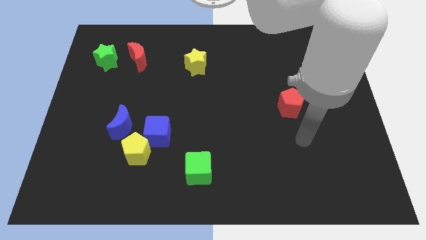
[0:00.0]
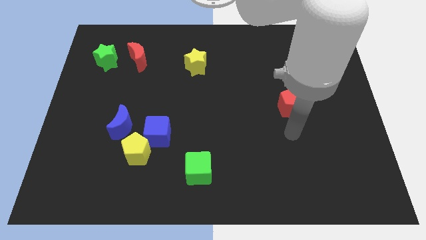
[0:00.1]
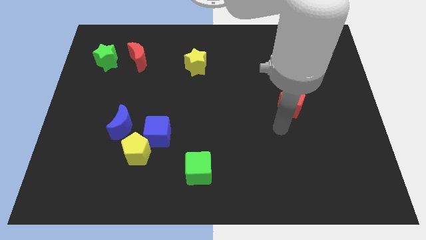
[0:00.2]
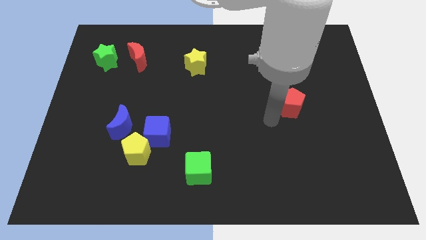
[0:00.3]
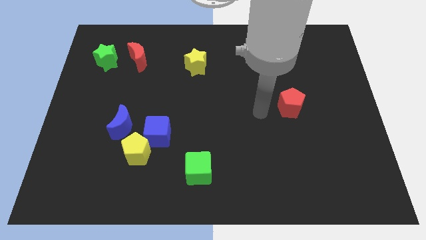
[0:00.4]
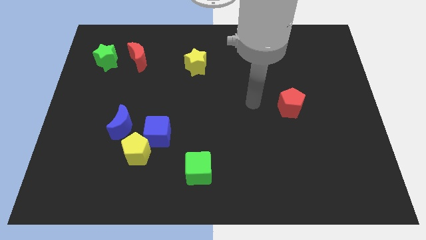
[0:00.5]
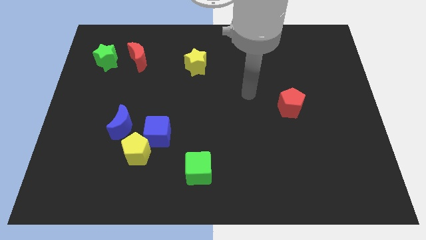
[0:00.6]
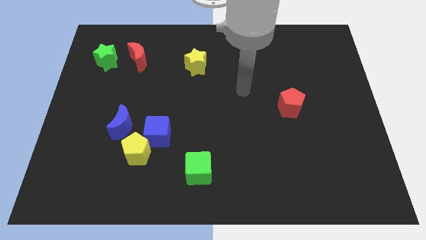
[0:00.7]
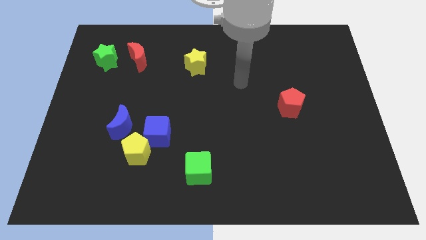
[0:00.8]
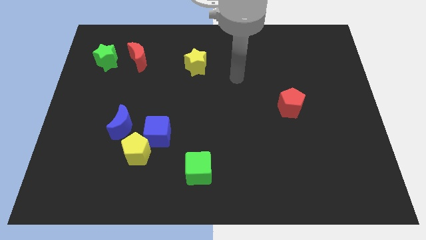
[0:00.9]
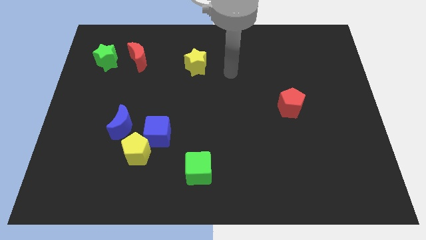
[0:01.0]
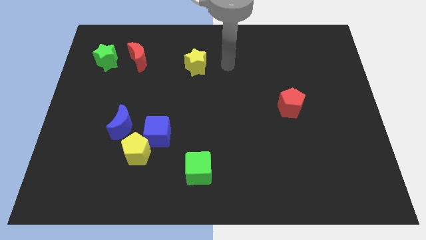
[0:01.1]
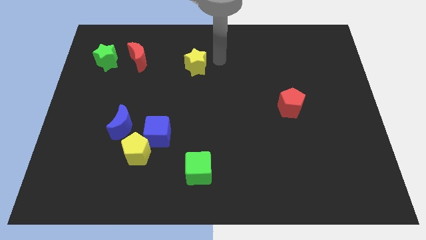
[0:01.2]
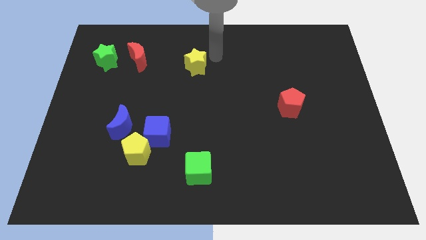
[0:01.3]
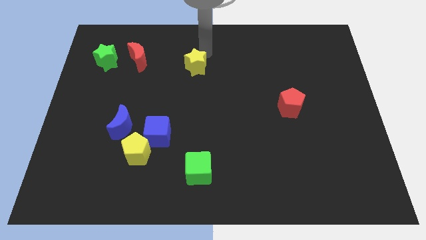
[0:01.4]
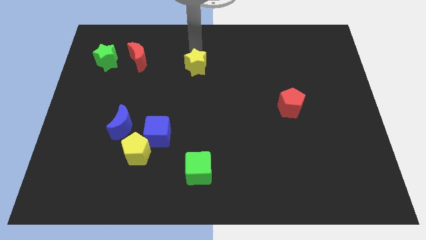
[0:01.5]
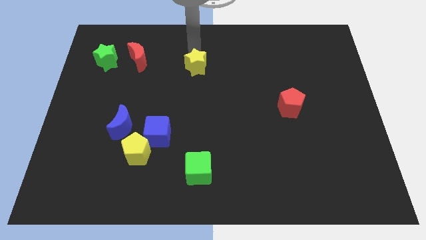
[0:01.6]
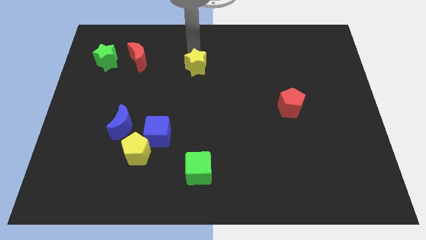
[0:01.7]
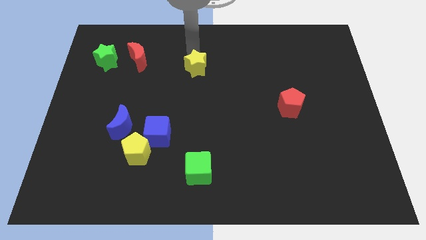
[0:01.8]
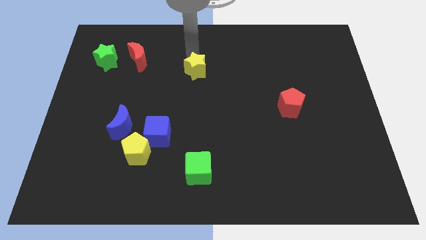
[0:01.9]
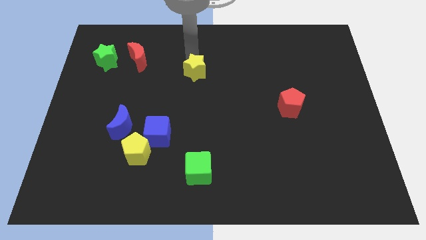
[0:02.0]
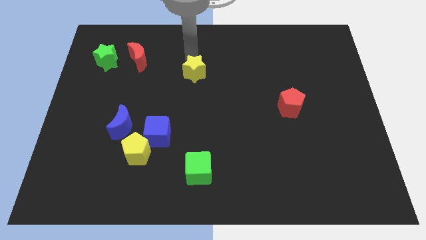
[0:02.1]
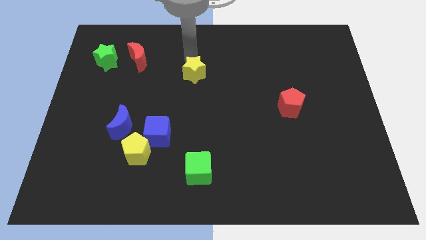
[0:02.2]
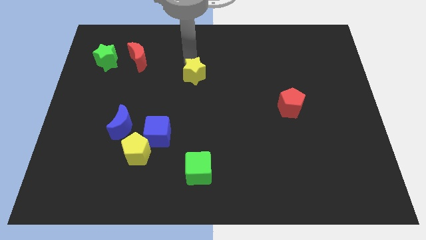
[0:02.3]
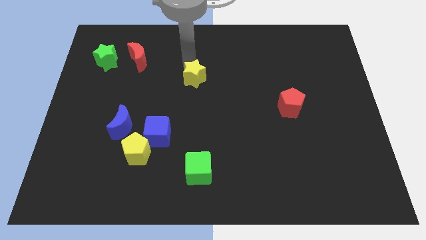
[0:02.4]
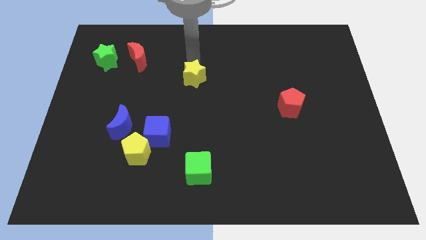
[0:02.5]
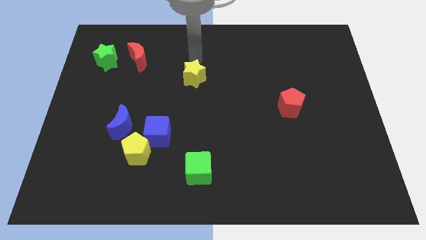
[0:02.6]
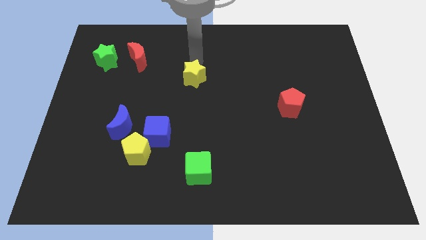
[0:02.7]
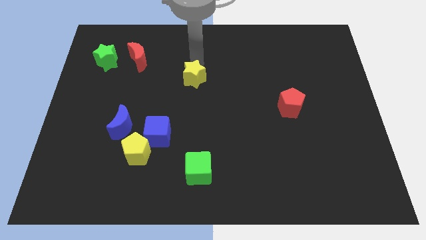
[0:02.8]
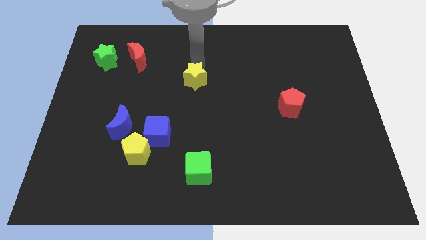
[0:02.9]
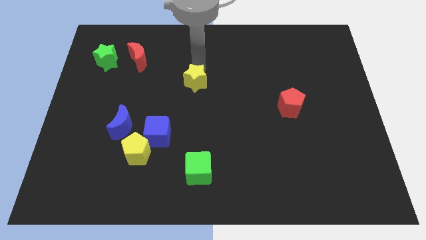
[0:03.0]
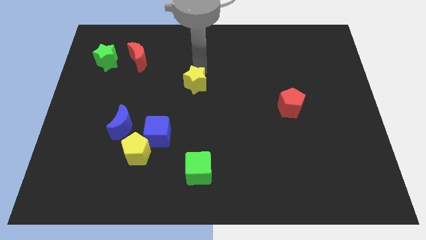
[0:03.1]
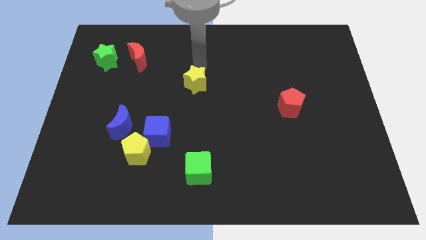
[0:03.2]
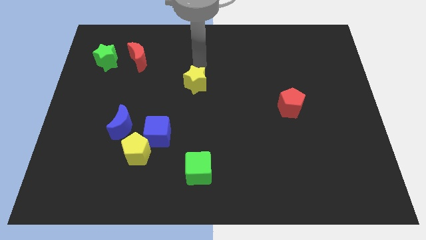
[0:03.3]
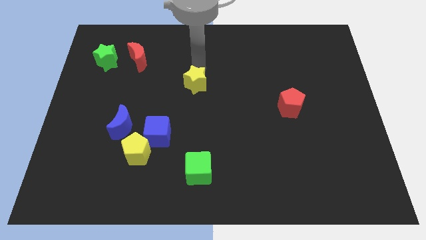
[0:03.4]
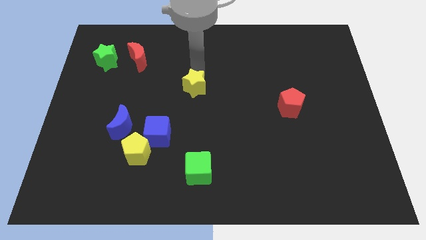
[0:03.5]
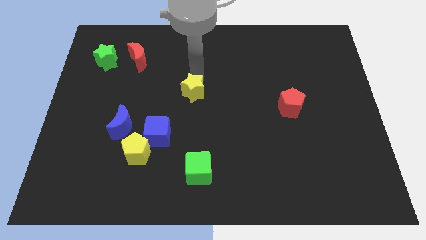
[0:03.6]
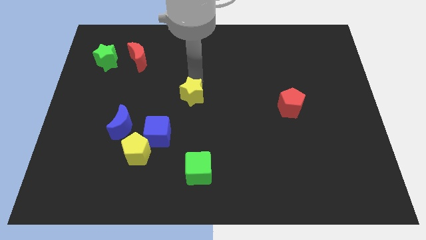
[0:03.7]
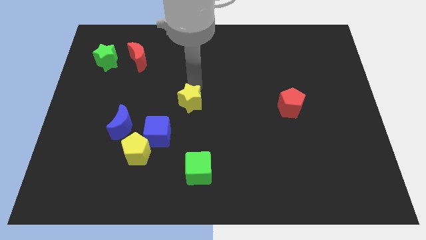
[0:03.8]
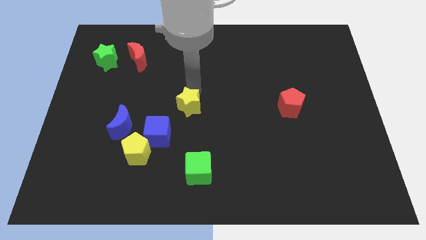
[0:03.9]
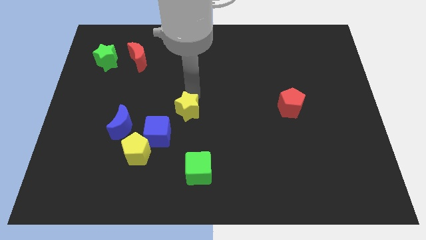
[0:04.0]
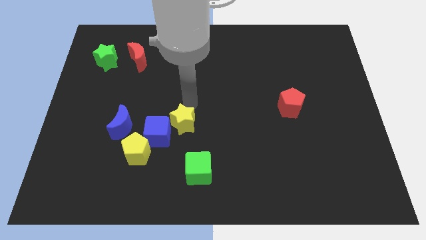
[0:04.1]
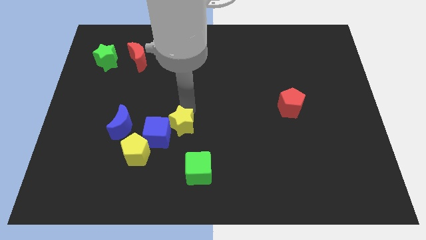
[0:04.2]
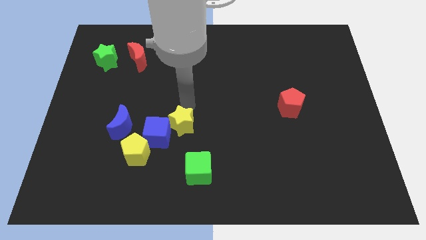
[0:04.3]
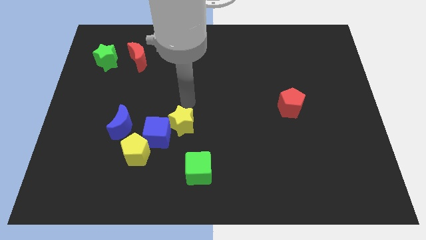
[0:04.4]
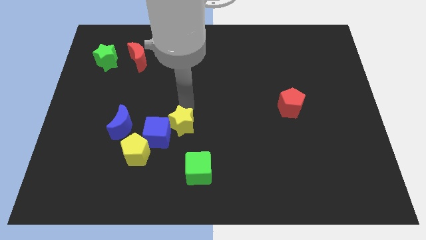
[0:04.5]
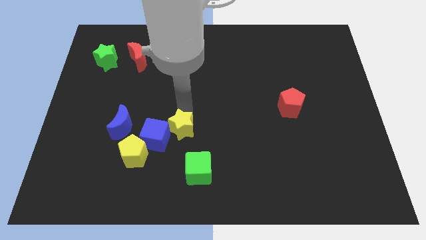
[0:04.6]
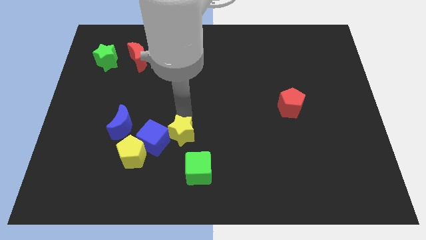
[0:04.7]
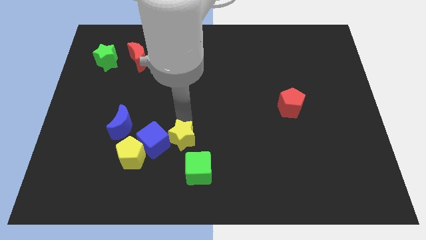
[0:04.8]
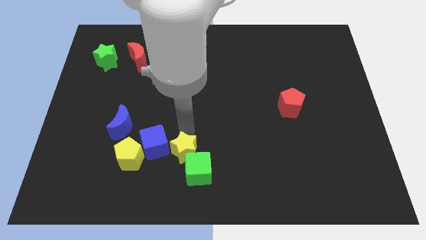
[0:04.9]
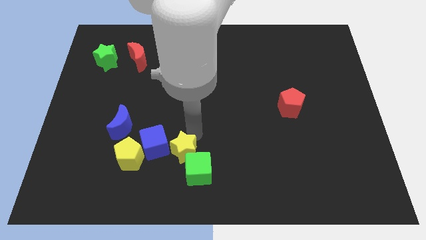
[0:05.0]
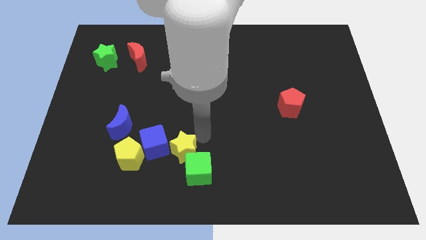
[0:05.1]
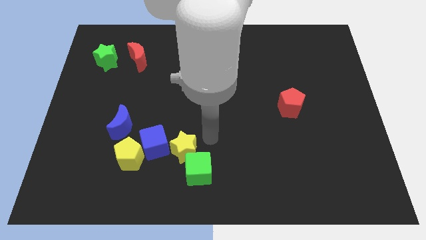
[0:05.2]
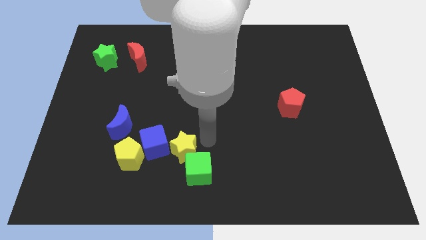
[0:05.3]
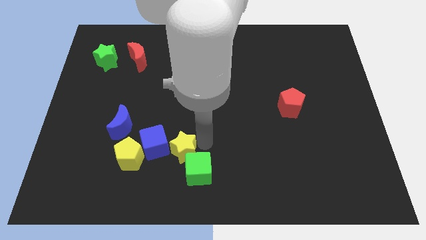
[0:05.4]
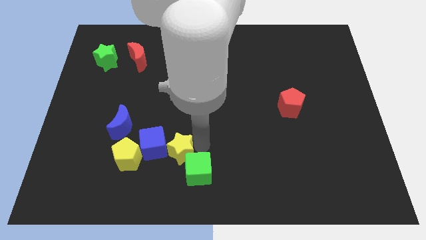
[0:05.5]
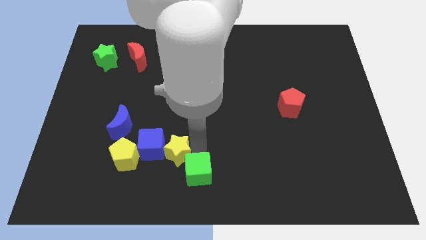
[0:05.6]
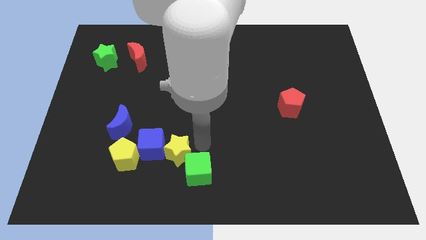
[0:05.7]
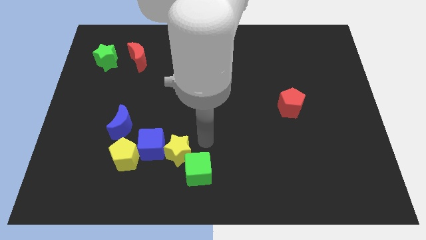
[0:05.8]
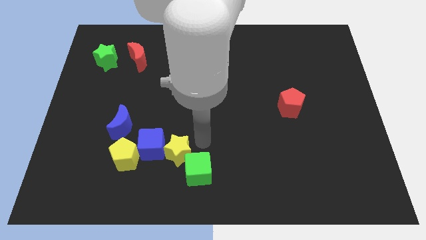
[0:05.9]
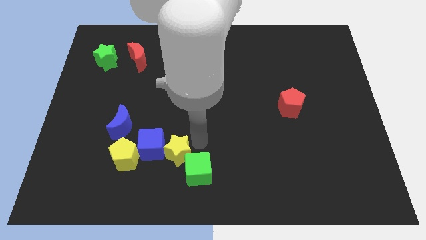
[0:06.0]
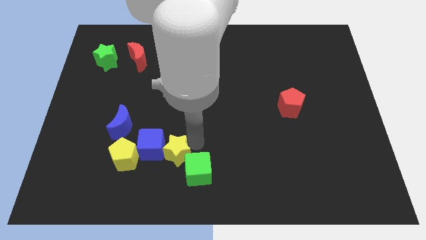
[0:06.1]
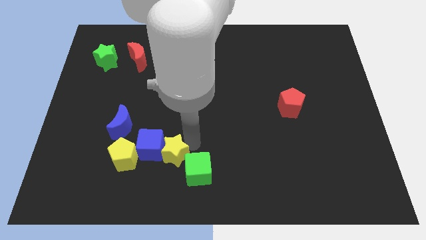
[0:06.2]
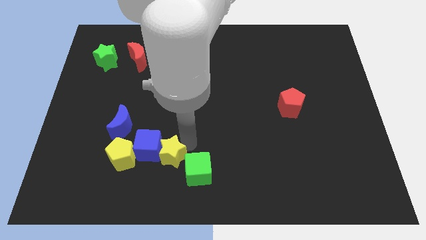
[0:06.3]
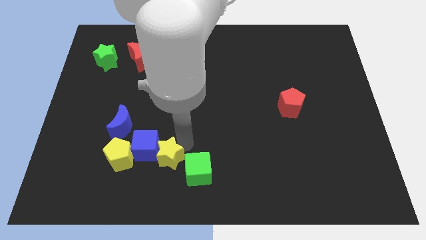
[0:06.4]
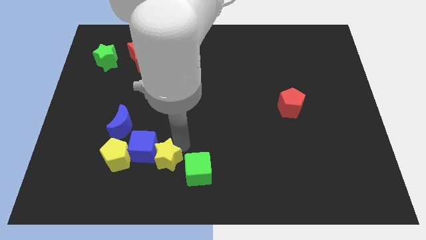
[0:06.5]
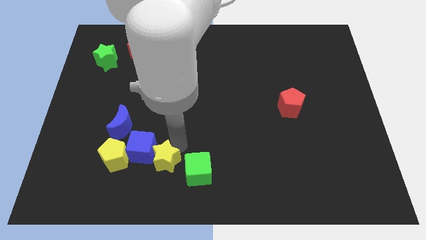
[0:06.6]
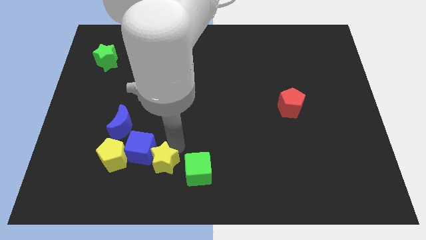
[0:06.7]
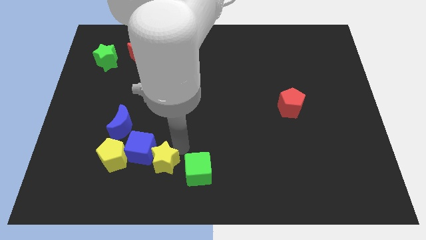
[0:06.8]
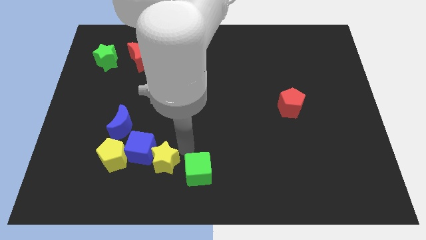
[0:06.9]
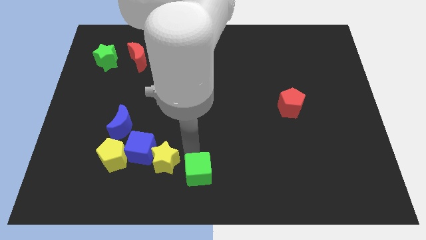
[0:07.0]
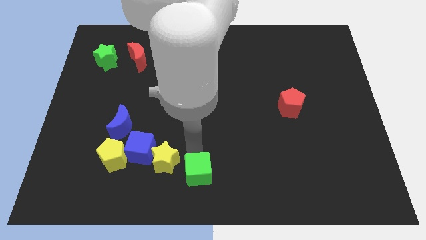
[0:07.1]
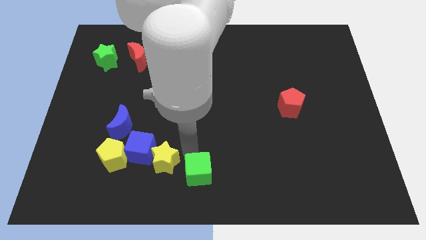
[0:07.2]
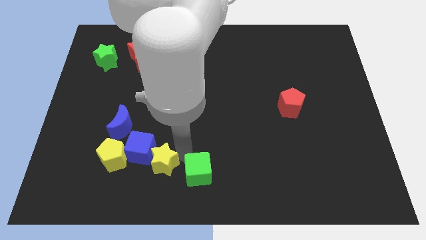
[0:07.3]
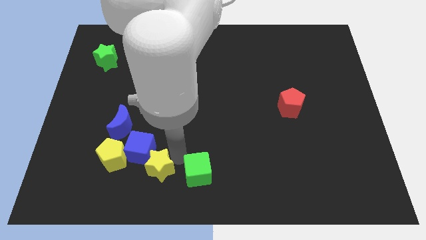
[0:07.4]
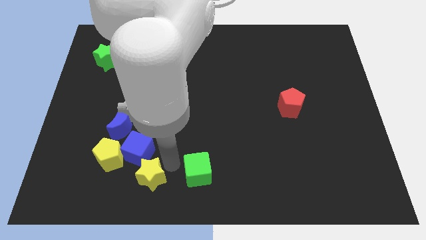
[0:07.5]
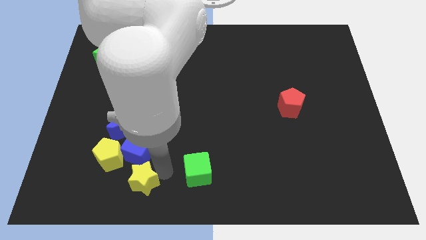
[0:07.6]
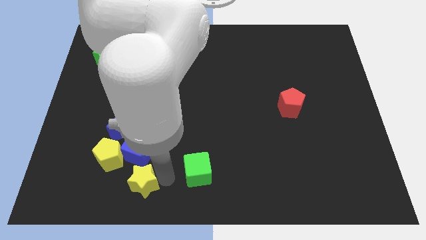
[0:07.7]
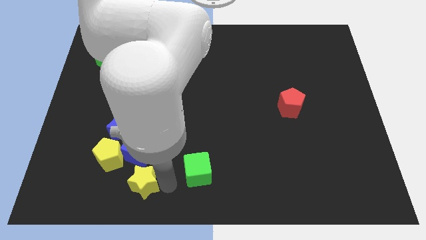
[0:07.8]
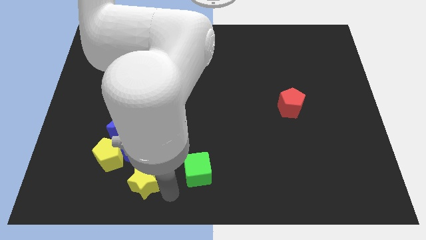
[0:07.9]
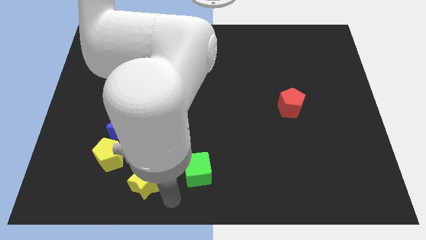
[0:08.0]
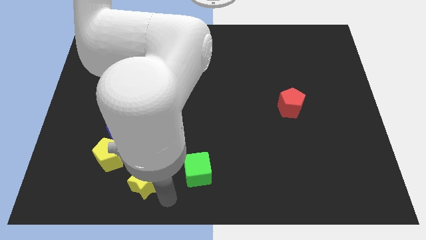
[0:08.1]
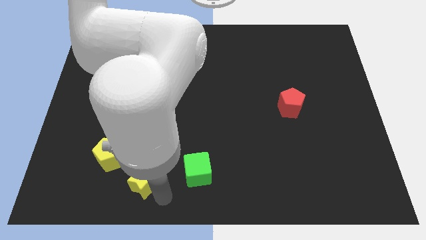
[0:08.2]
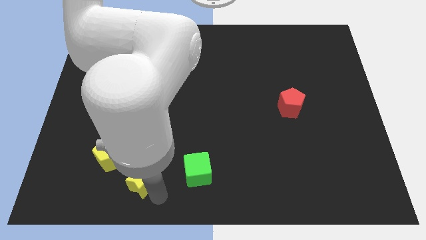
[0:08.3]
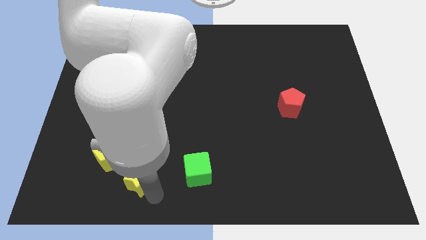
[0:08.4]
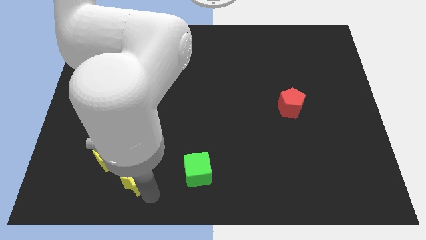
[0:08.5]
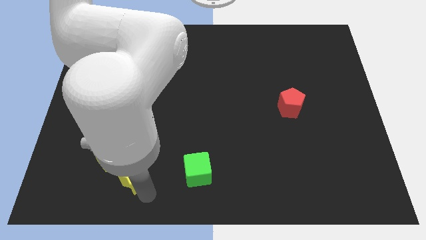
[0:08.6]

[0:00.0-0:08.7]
put the yellow star to the bottom of the blue moon

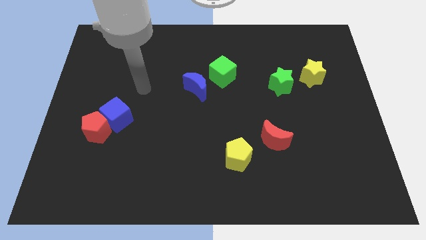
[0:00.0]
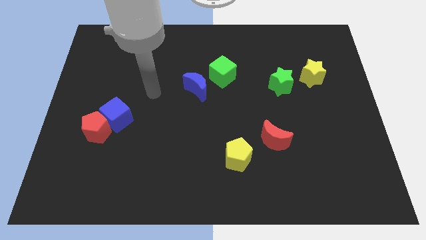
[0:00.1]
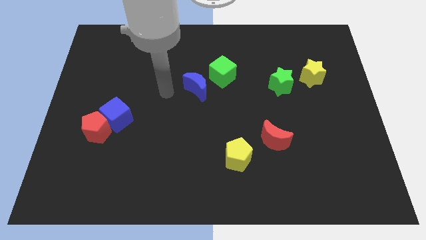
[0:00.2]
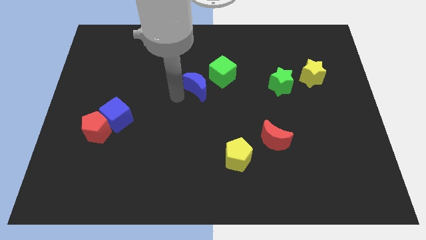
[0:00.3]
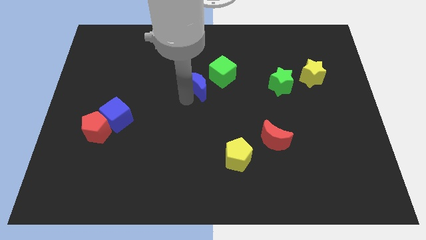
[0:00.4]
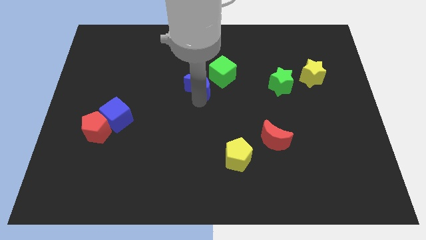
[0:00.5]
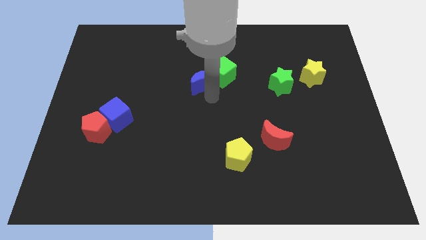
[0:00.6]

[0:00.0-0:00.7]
move the green cube to the top of the blue moon
